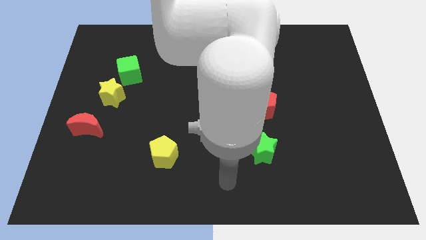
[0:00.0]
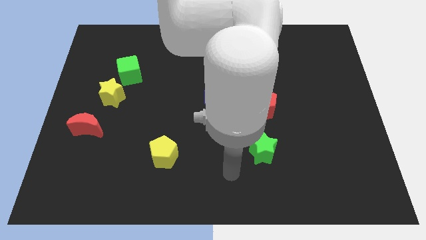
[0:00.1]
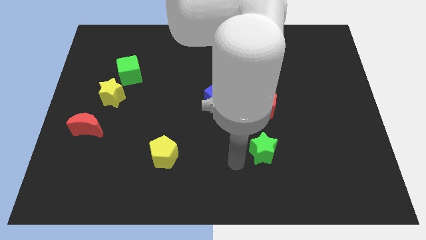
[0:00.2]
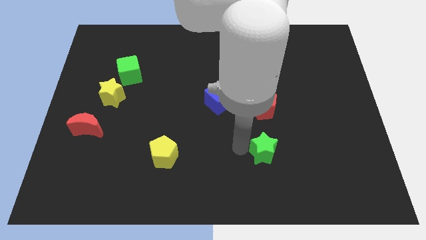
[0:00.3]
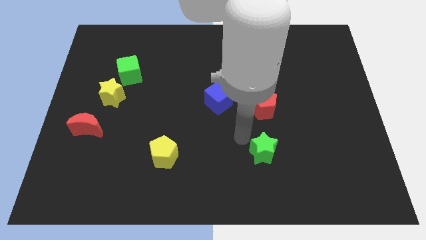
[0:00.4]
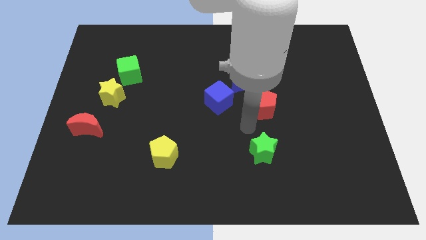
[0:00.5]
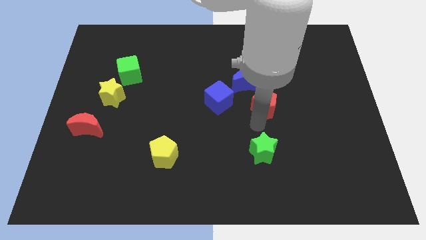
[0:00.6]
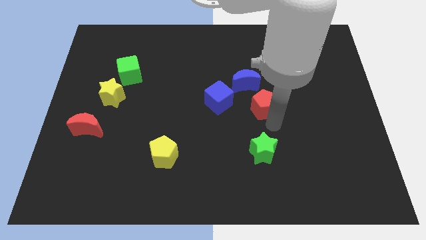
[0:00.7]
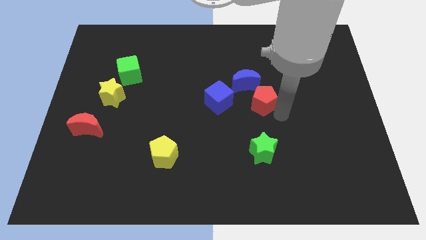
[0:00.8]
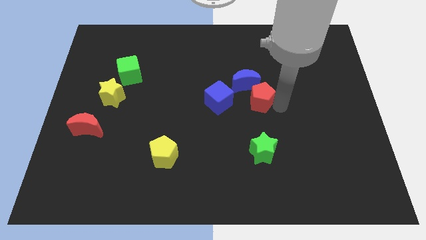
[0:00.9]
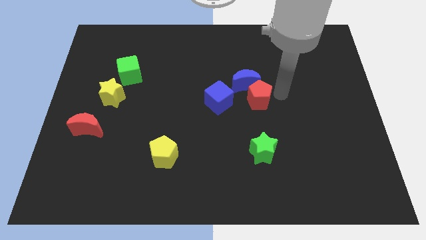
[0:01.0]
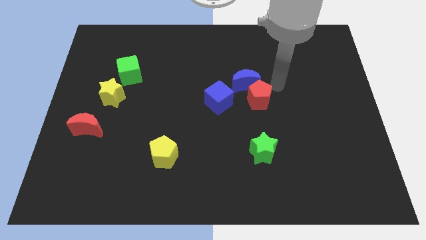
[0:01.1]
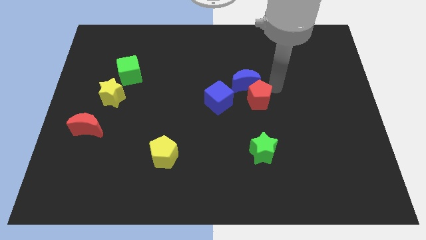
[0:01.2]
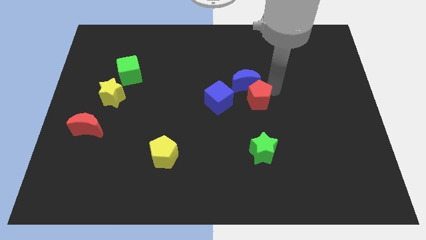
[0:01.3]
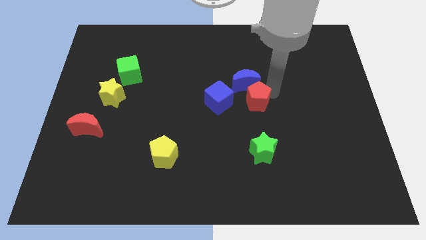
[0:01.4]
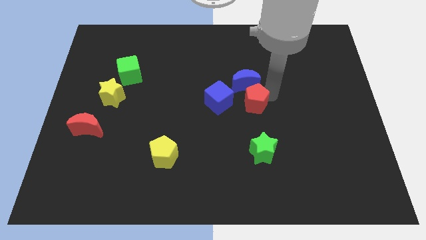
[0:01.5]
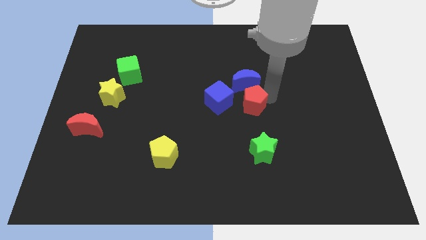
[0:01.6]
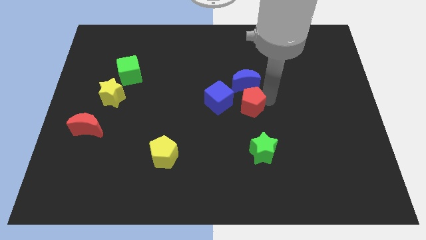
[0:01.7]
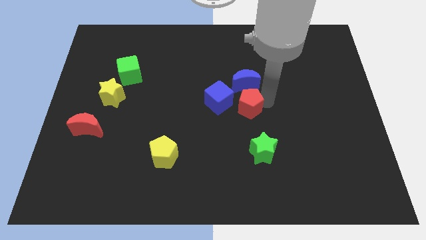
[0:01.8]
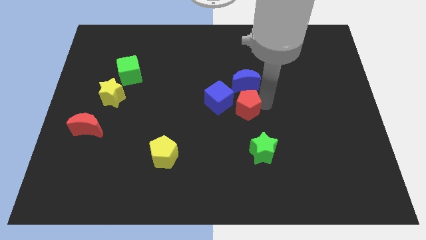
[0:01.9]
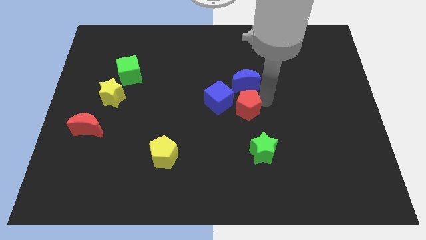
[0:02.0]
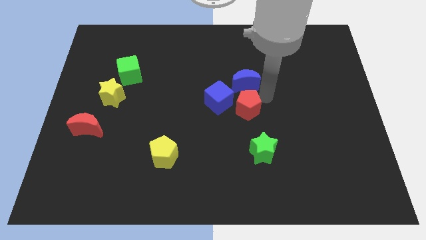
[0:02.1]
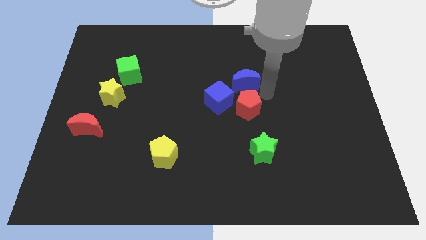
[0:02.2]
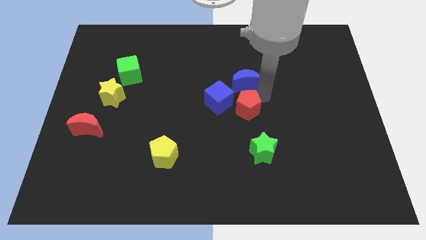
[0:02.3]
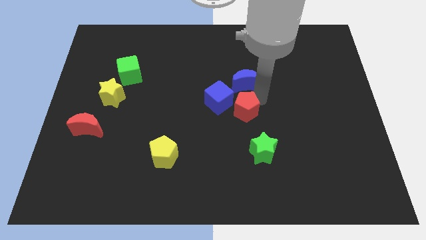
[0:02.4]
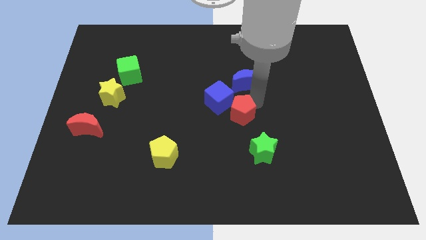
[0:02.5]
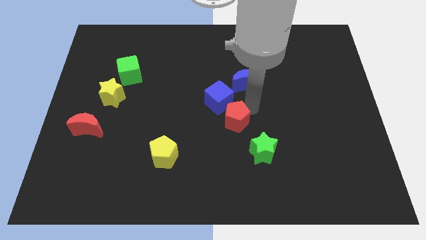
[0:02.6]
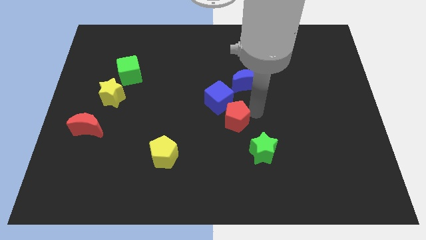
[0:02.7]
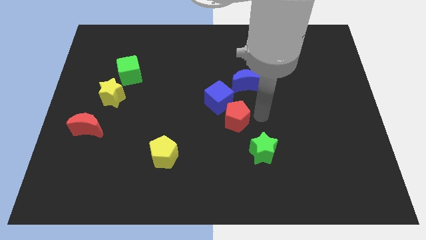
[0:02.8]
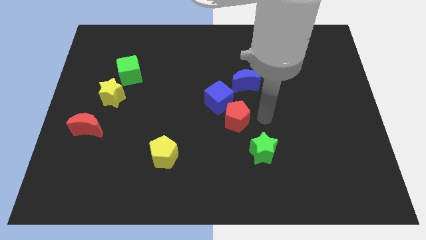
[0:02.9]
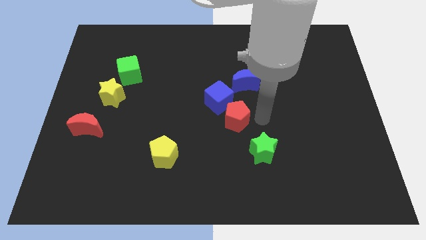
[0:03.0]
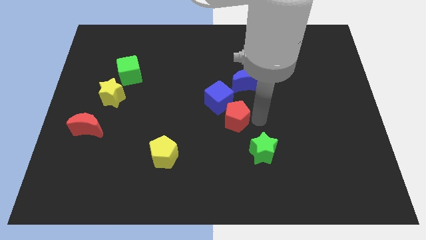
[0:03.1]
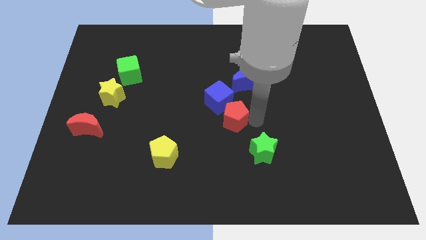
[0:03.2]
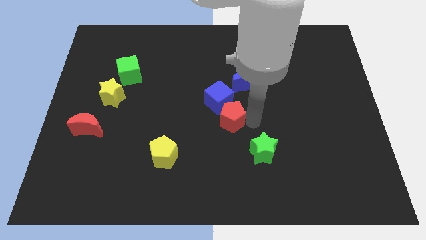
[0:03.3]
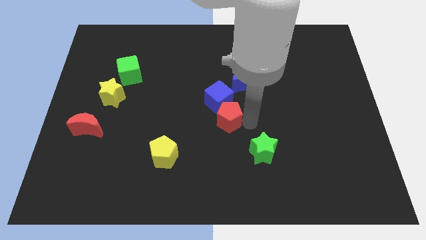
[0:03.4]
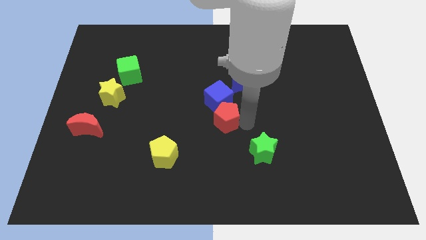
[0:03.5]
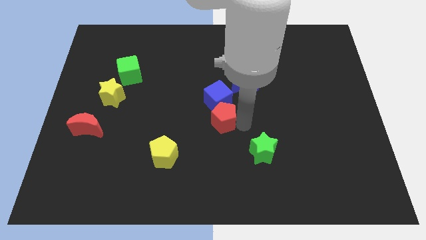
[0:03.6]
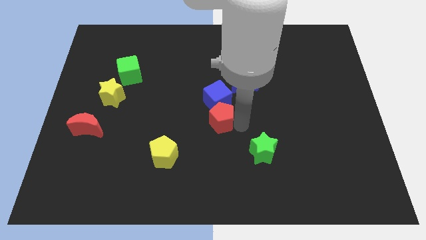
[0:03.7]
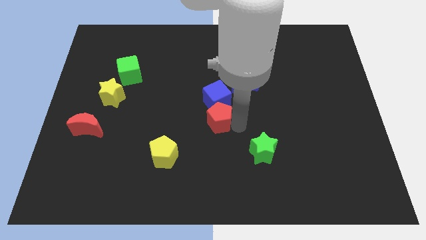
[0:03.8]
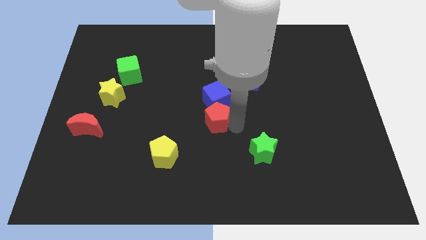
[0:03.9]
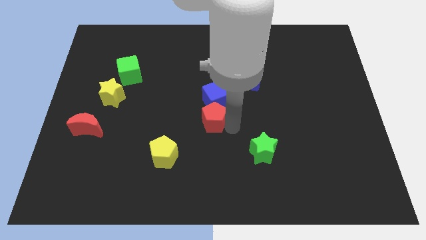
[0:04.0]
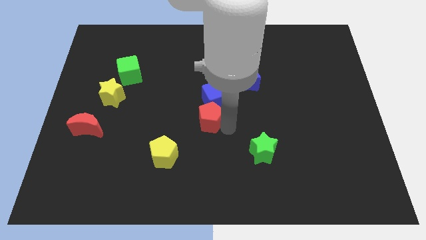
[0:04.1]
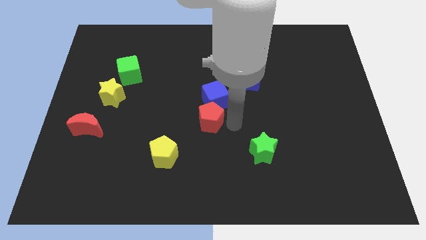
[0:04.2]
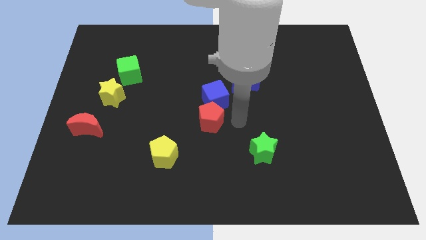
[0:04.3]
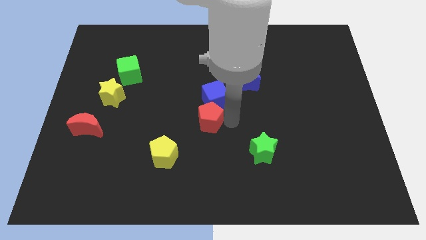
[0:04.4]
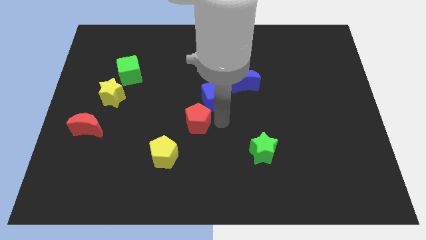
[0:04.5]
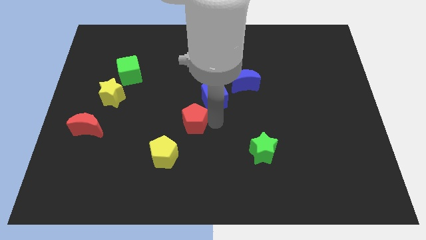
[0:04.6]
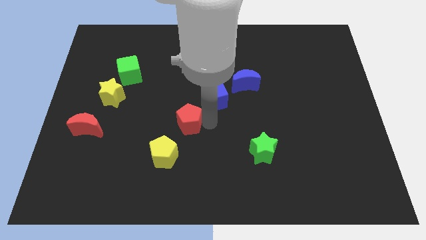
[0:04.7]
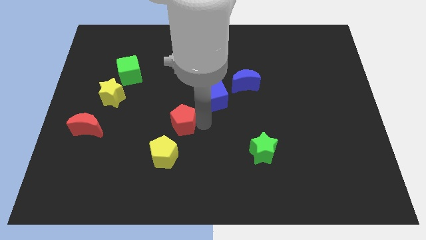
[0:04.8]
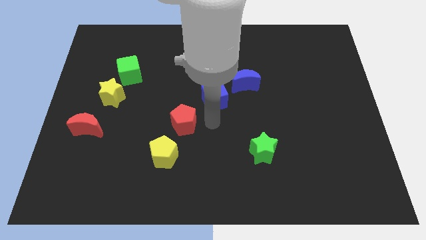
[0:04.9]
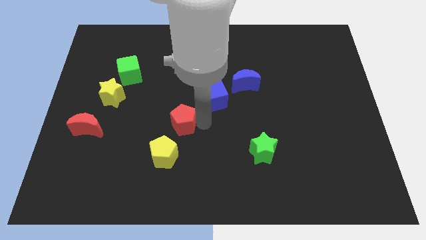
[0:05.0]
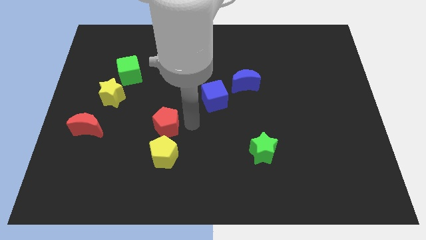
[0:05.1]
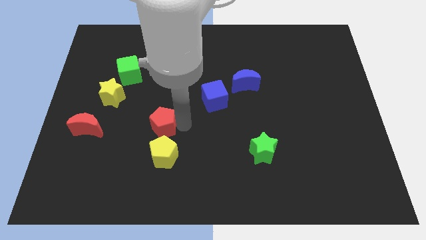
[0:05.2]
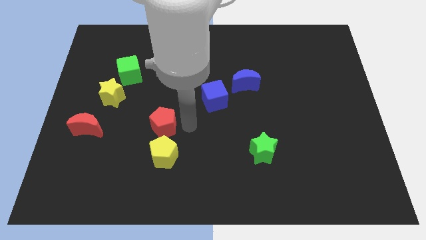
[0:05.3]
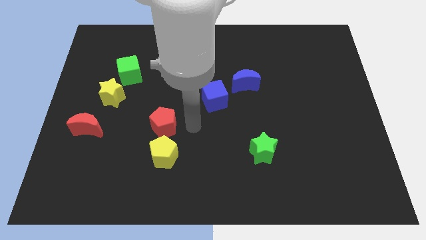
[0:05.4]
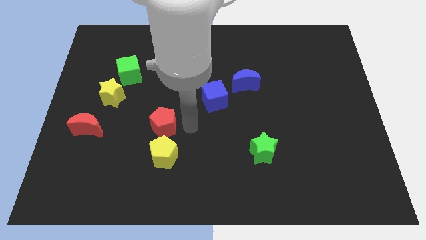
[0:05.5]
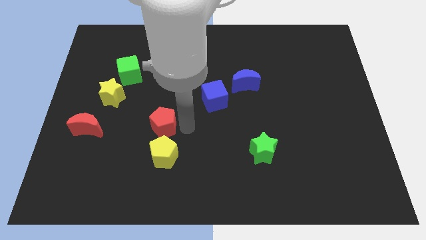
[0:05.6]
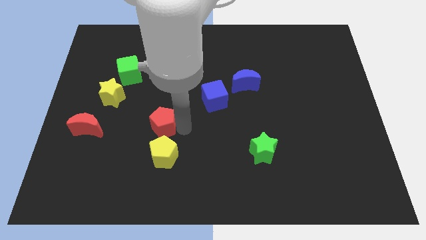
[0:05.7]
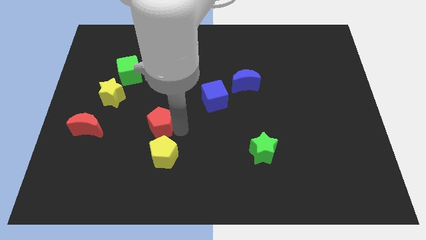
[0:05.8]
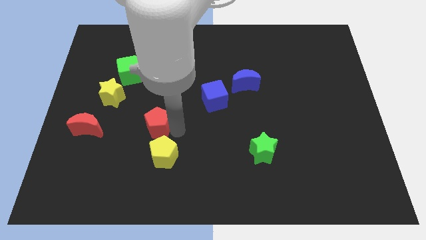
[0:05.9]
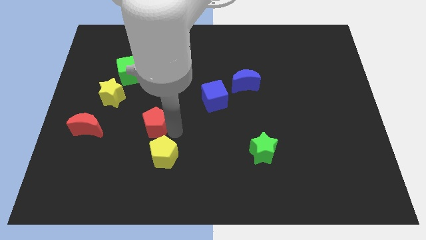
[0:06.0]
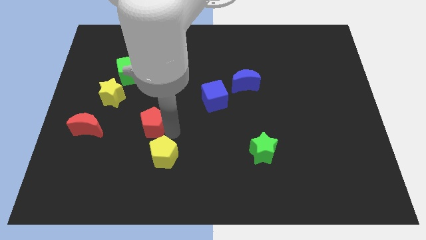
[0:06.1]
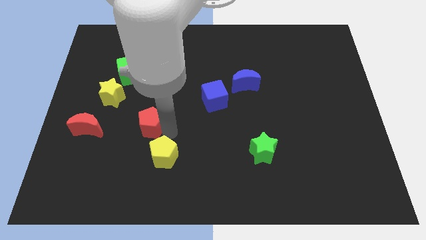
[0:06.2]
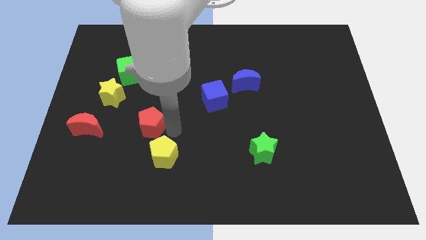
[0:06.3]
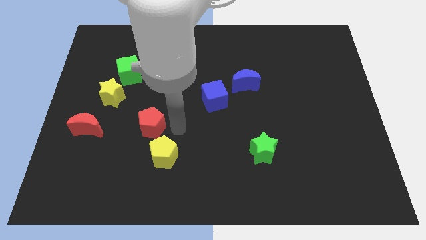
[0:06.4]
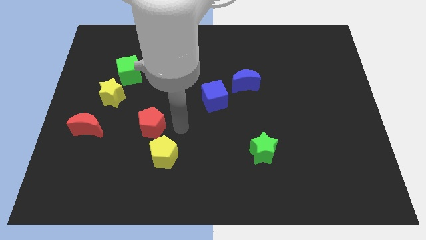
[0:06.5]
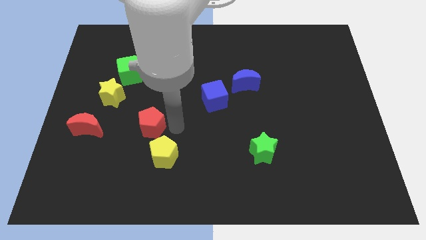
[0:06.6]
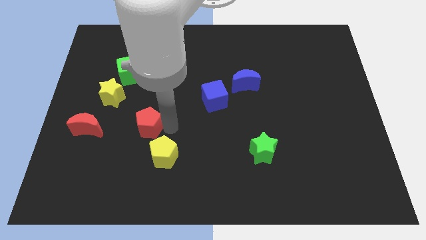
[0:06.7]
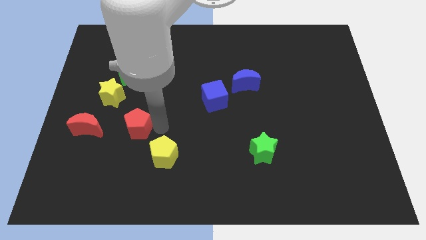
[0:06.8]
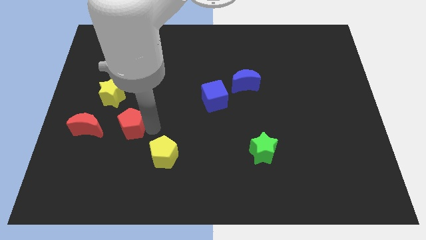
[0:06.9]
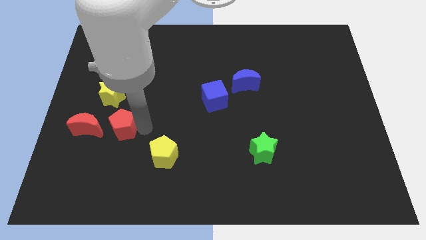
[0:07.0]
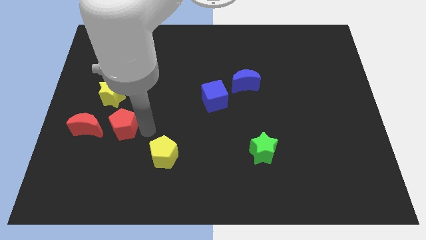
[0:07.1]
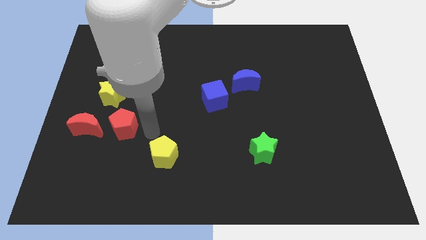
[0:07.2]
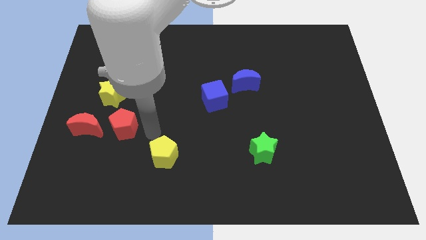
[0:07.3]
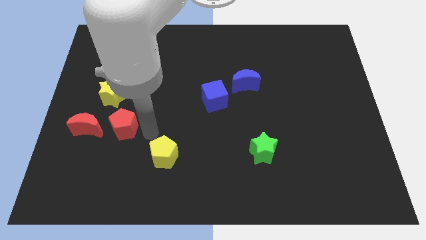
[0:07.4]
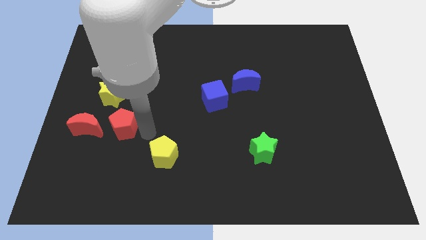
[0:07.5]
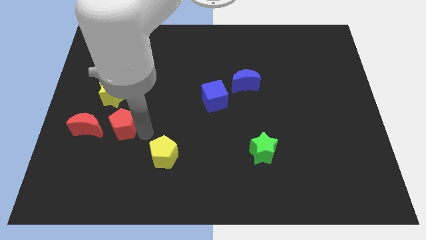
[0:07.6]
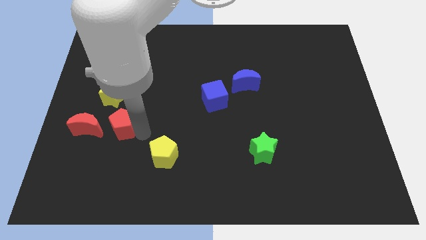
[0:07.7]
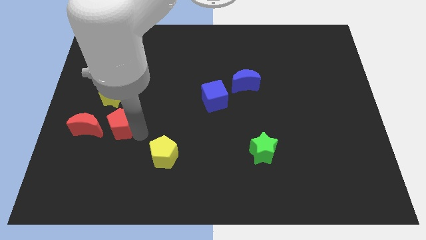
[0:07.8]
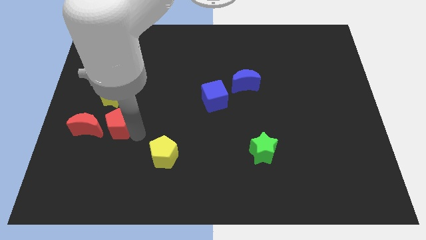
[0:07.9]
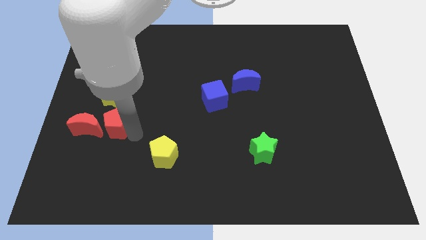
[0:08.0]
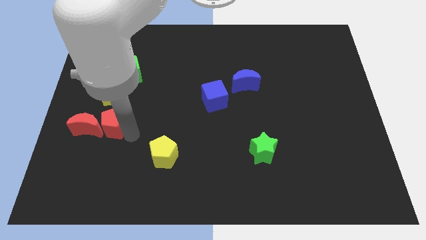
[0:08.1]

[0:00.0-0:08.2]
slide the red pentagon next to the red moon
